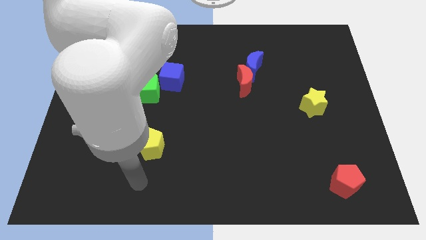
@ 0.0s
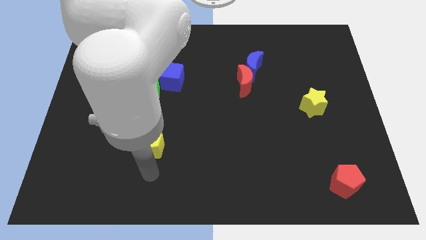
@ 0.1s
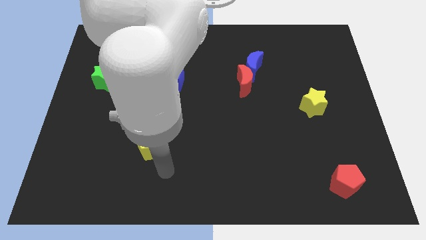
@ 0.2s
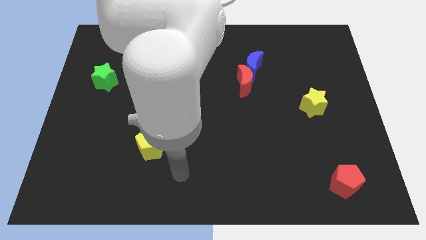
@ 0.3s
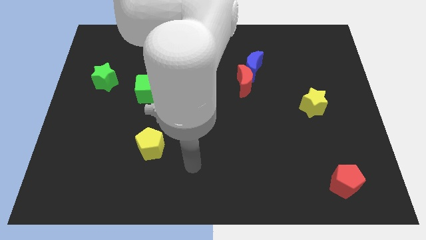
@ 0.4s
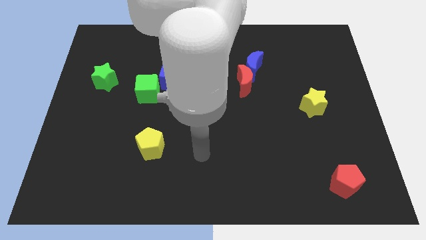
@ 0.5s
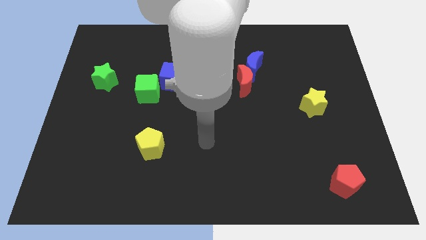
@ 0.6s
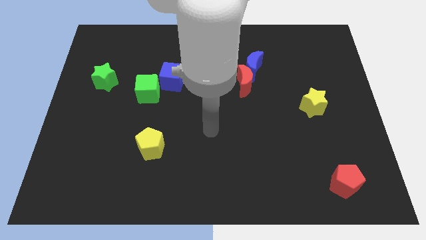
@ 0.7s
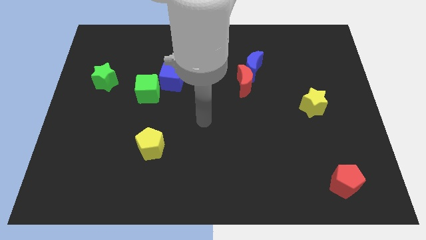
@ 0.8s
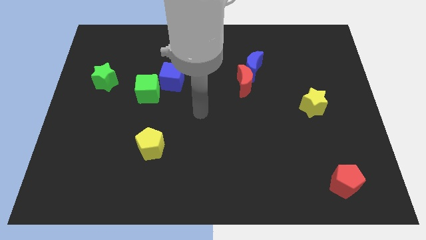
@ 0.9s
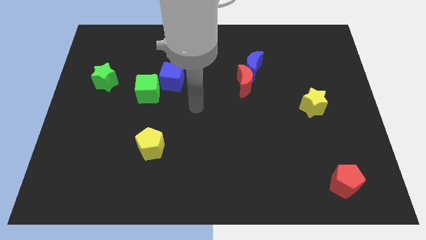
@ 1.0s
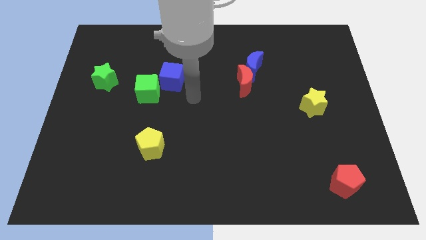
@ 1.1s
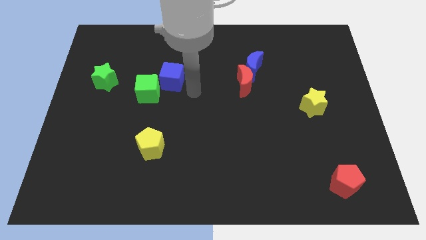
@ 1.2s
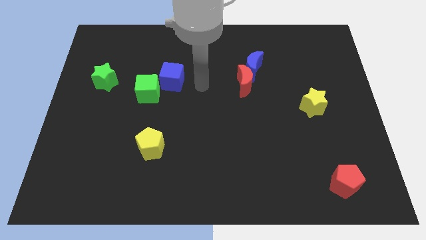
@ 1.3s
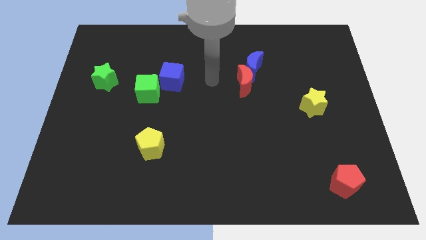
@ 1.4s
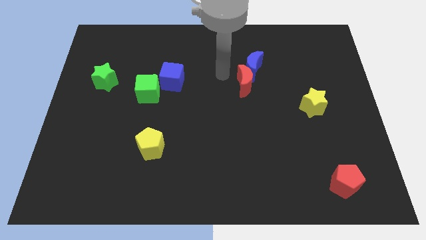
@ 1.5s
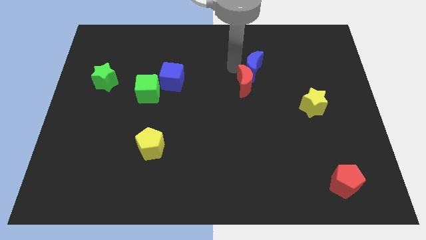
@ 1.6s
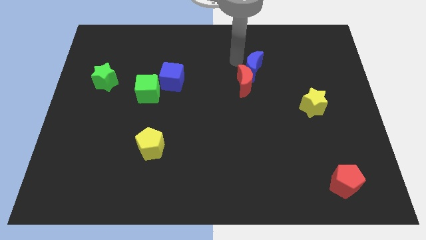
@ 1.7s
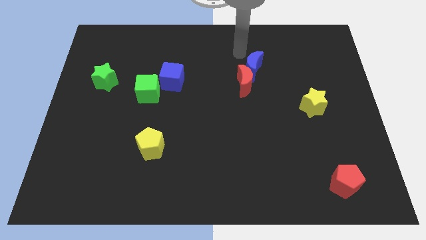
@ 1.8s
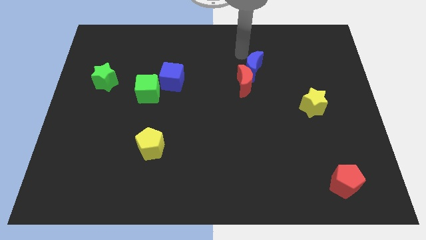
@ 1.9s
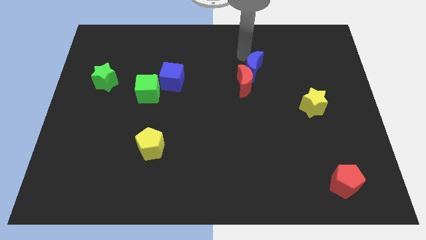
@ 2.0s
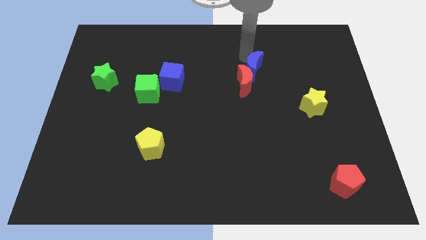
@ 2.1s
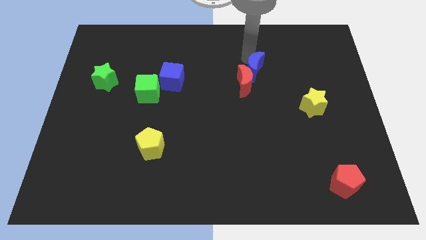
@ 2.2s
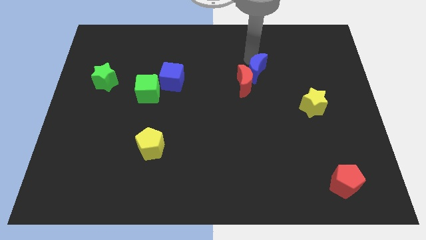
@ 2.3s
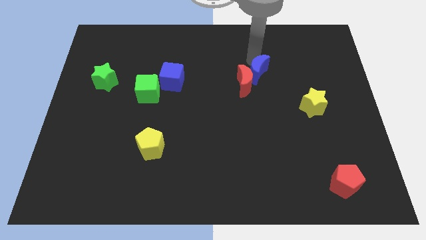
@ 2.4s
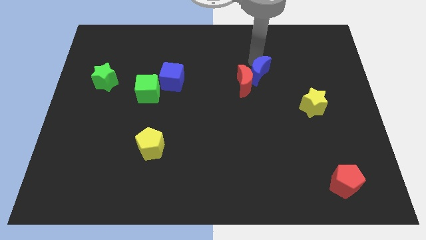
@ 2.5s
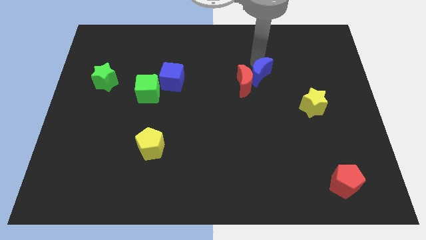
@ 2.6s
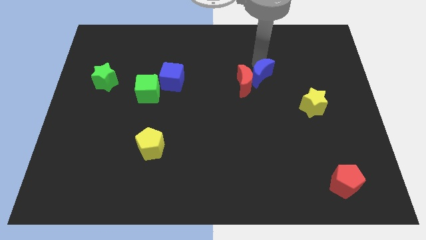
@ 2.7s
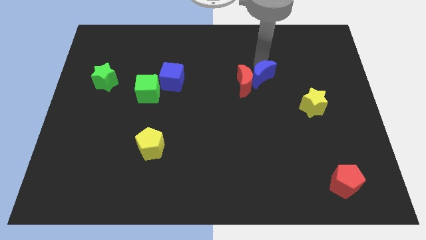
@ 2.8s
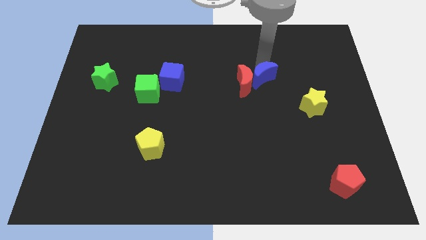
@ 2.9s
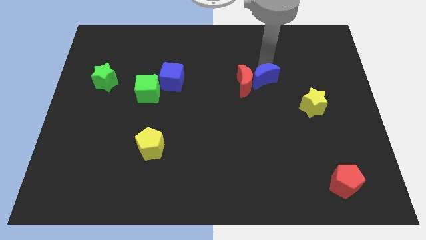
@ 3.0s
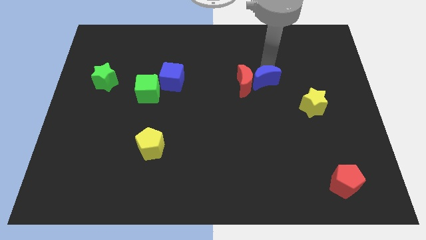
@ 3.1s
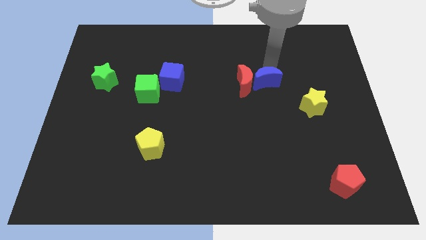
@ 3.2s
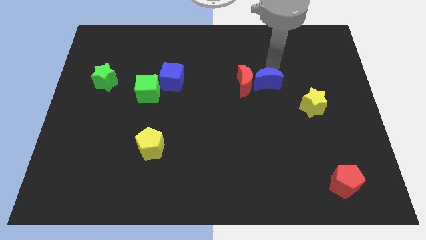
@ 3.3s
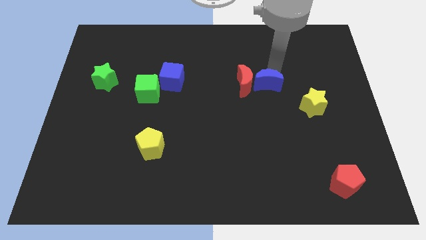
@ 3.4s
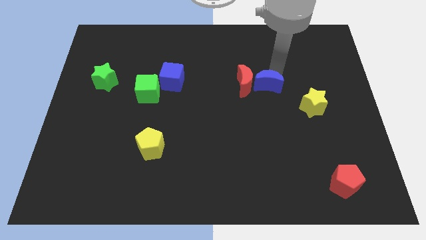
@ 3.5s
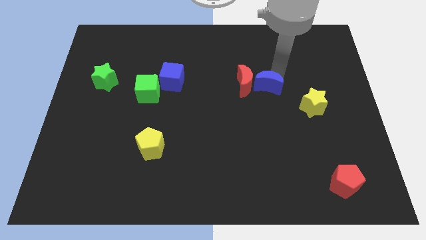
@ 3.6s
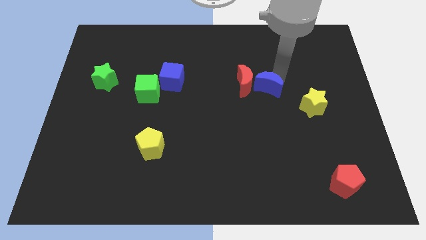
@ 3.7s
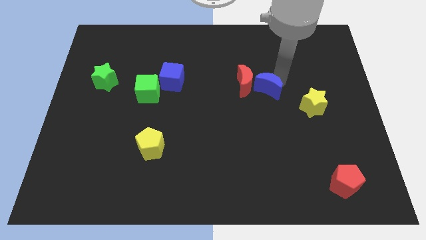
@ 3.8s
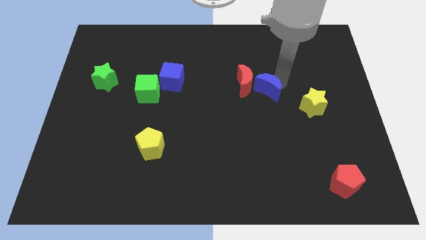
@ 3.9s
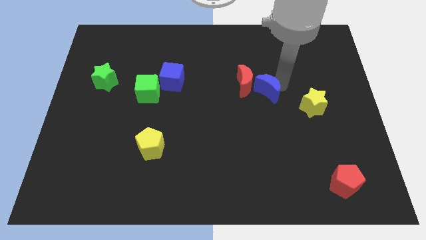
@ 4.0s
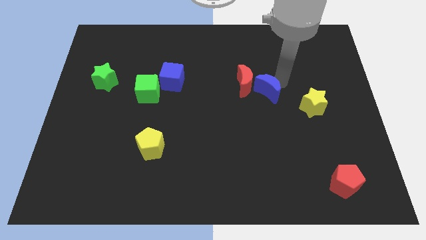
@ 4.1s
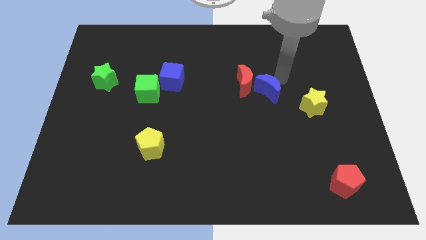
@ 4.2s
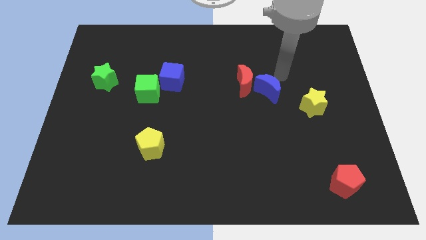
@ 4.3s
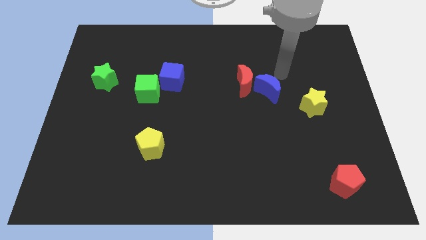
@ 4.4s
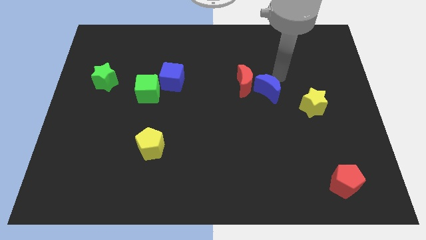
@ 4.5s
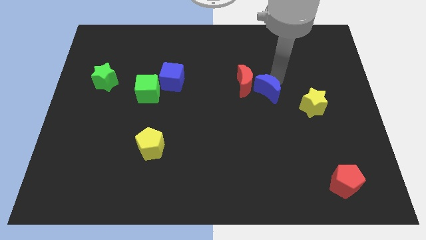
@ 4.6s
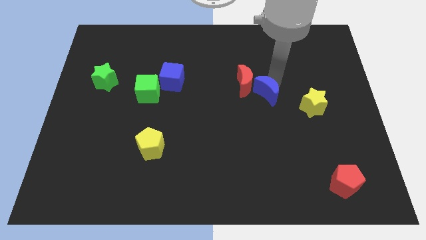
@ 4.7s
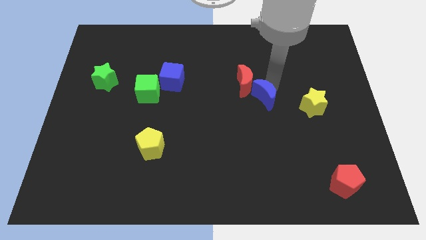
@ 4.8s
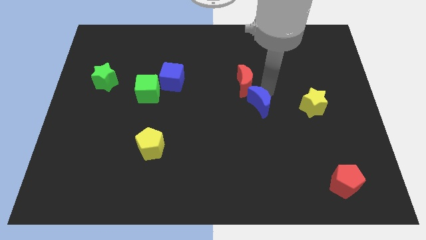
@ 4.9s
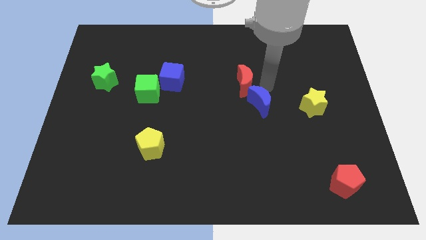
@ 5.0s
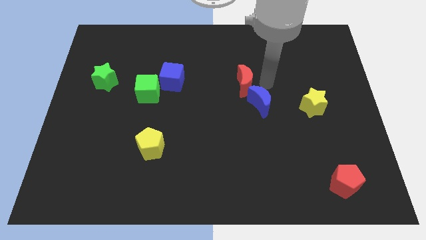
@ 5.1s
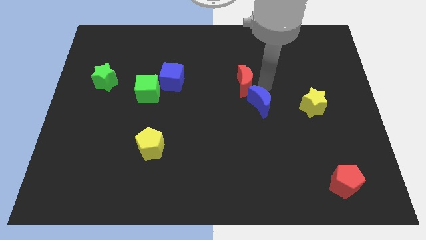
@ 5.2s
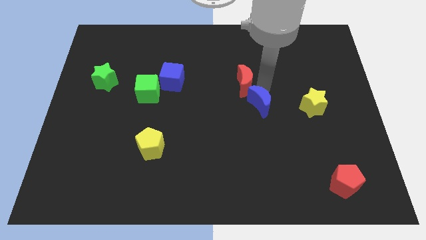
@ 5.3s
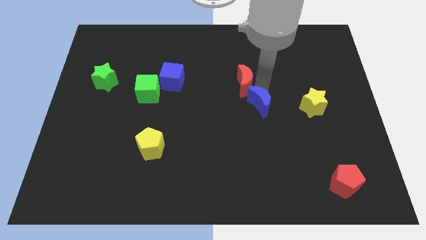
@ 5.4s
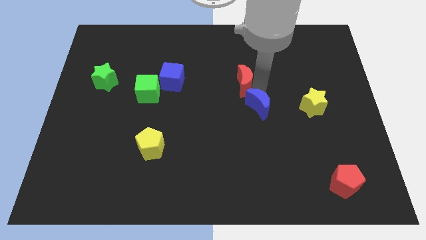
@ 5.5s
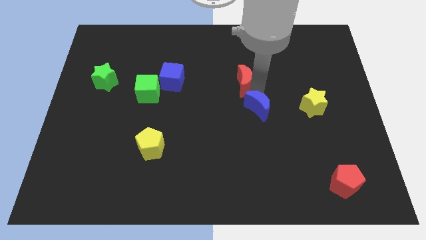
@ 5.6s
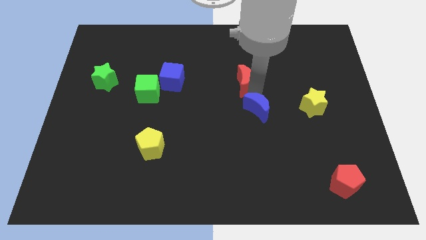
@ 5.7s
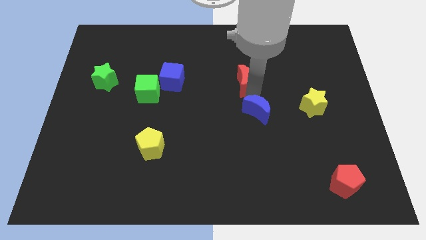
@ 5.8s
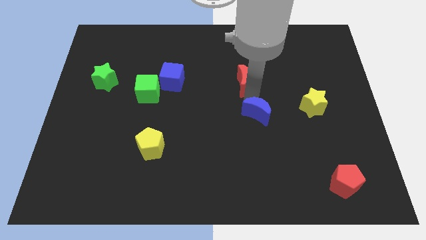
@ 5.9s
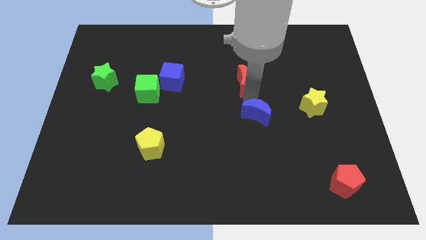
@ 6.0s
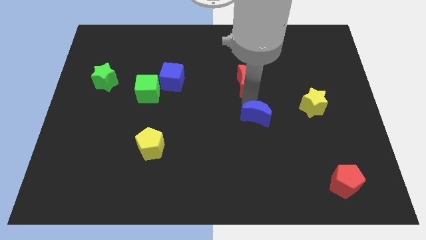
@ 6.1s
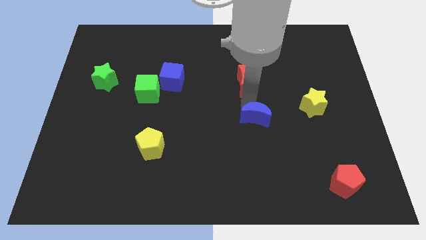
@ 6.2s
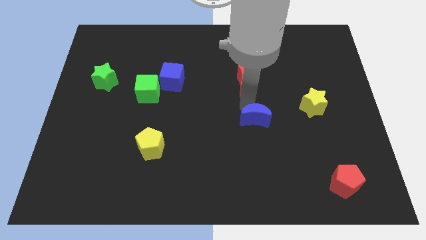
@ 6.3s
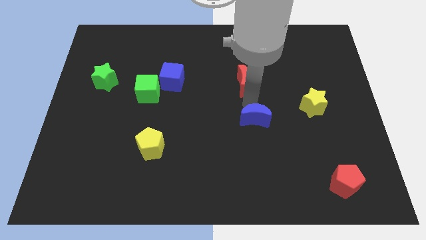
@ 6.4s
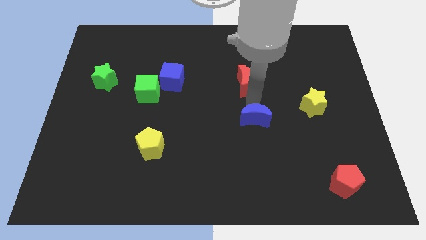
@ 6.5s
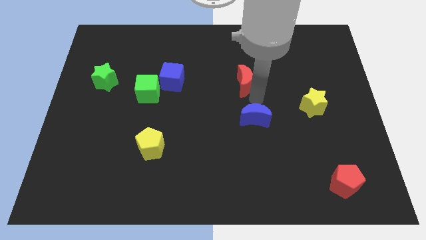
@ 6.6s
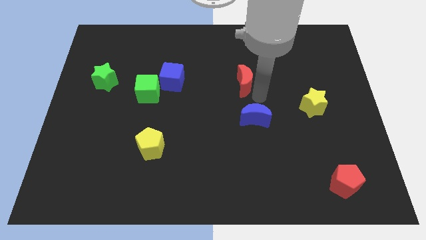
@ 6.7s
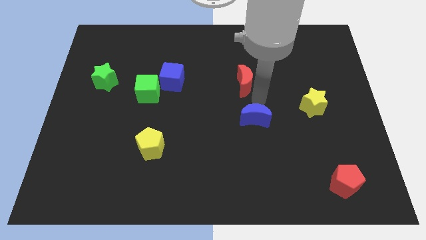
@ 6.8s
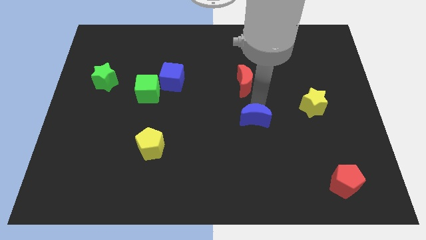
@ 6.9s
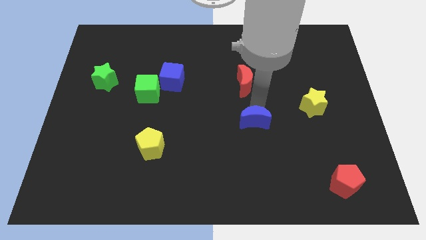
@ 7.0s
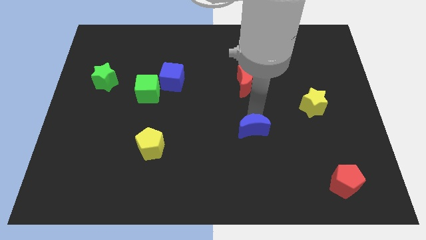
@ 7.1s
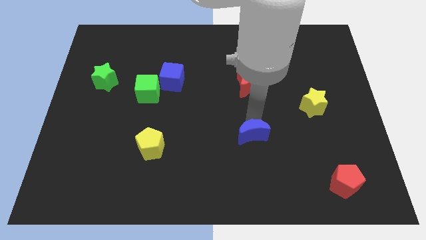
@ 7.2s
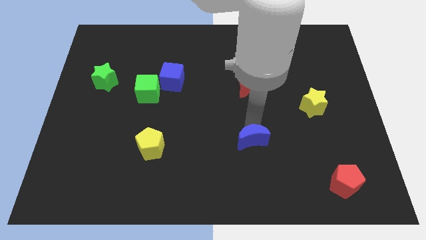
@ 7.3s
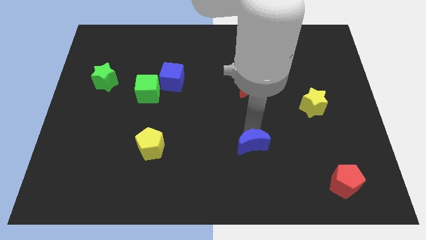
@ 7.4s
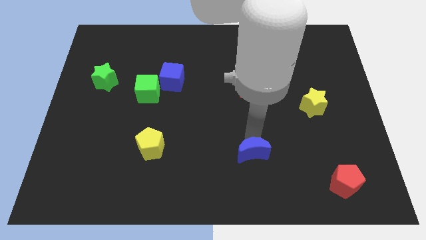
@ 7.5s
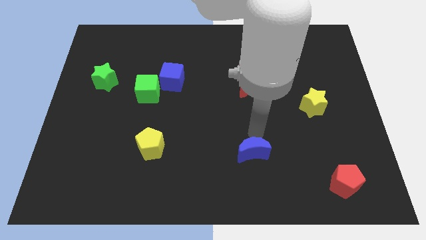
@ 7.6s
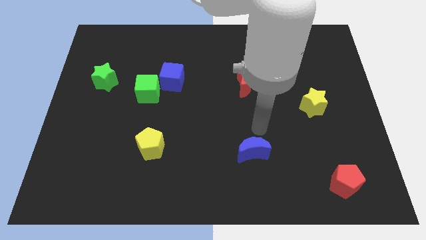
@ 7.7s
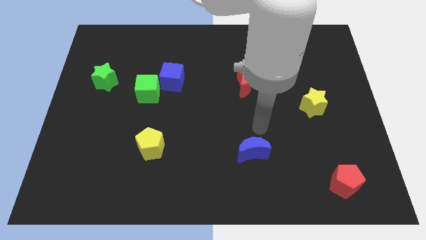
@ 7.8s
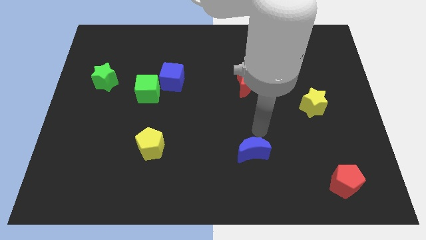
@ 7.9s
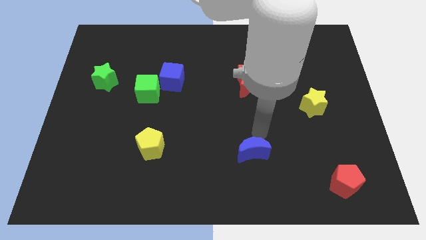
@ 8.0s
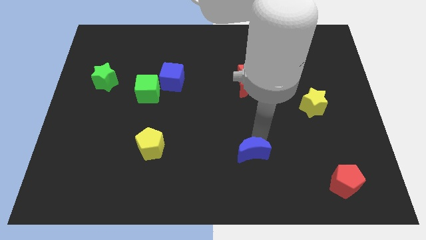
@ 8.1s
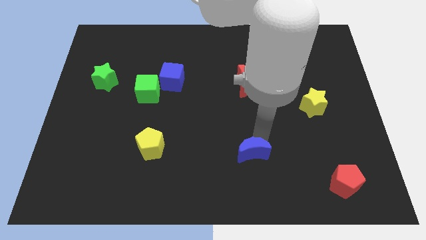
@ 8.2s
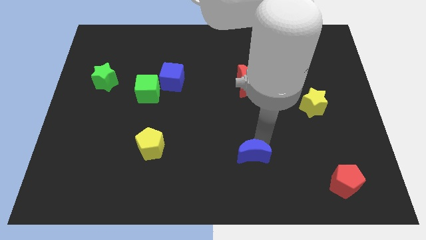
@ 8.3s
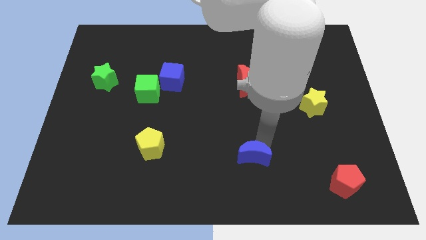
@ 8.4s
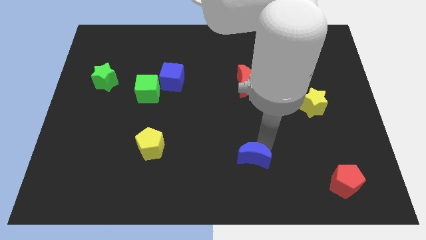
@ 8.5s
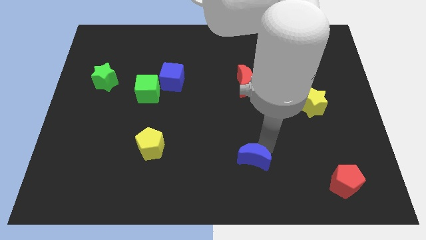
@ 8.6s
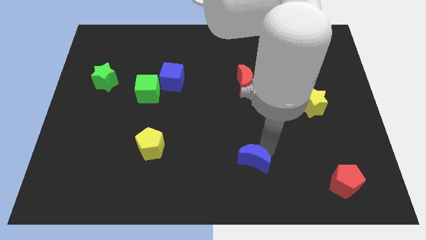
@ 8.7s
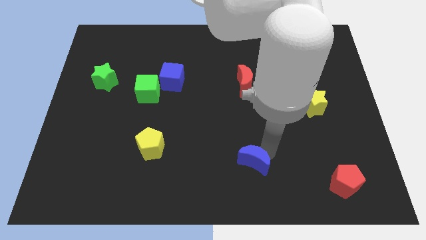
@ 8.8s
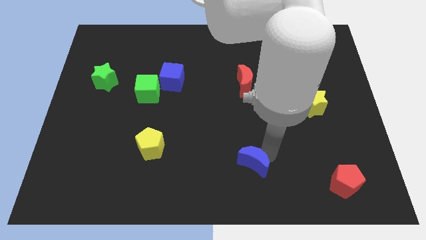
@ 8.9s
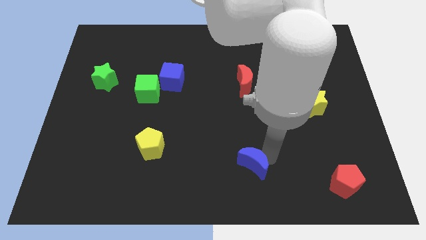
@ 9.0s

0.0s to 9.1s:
put the blue moon to the bottom
